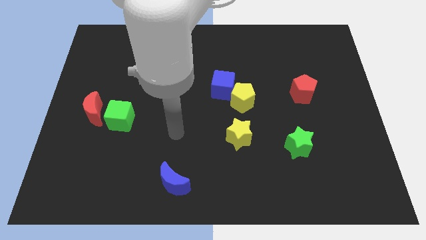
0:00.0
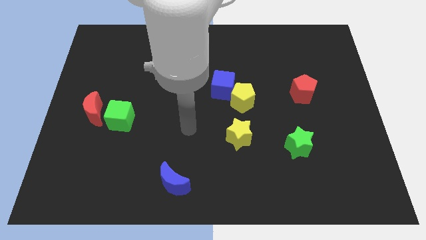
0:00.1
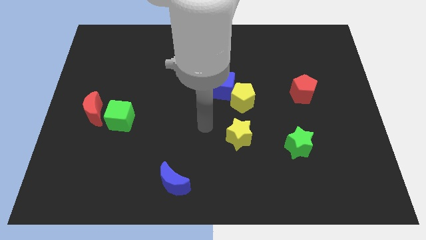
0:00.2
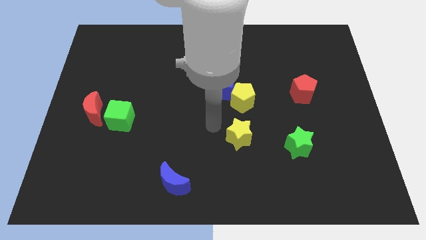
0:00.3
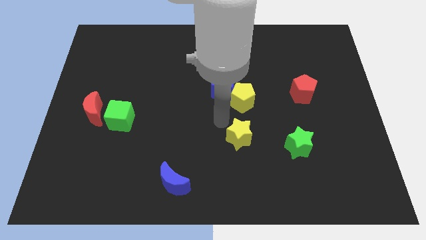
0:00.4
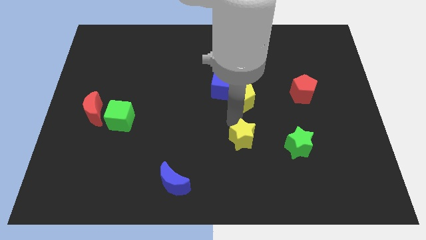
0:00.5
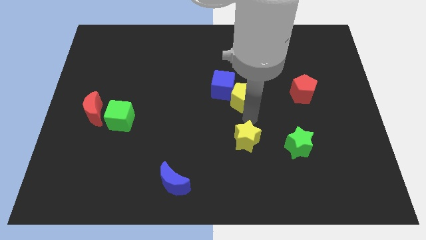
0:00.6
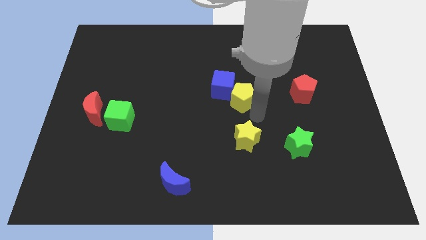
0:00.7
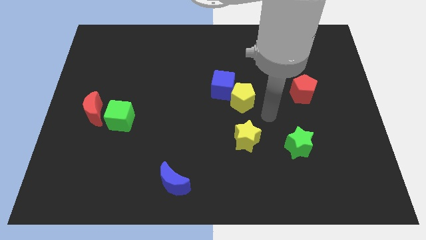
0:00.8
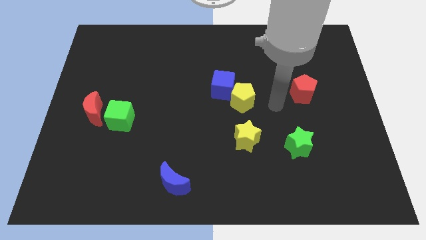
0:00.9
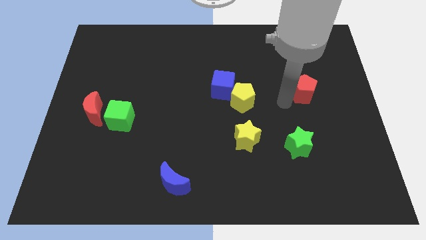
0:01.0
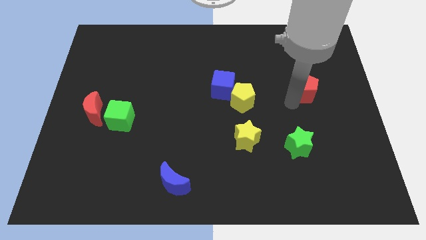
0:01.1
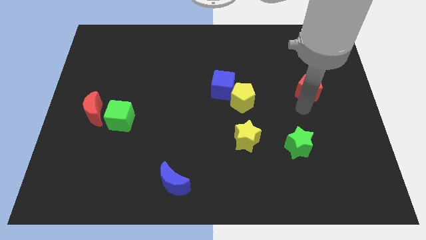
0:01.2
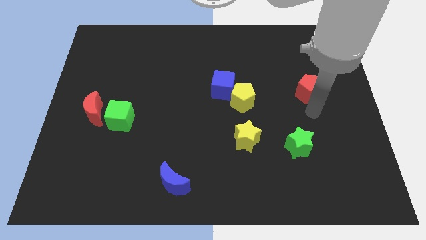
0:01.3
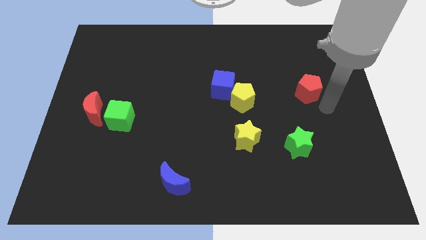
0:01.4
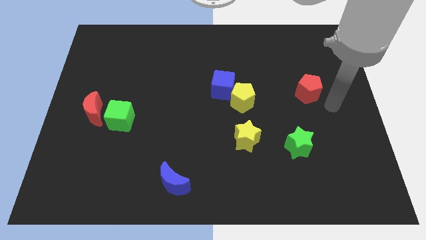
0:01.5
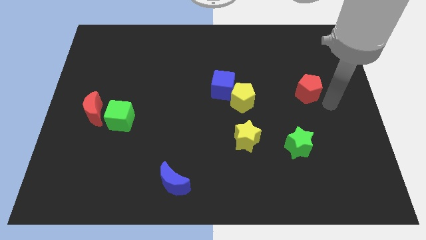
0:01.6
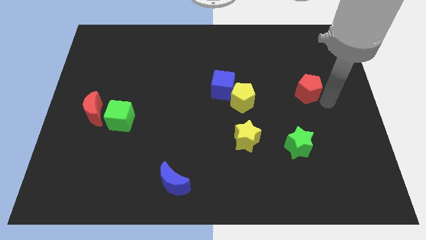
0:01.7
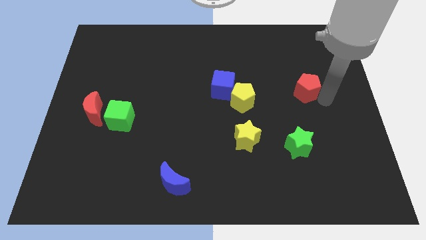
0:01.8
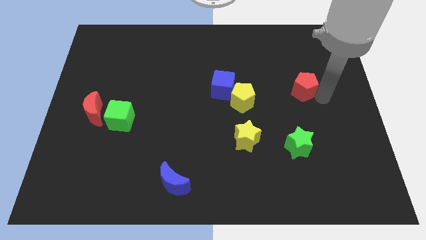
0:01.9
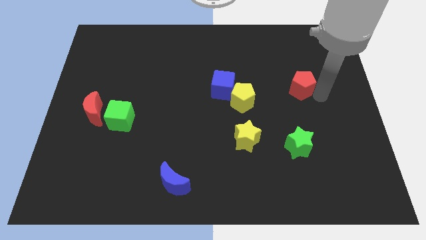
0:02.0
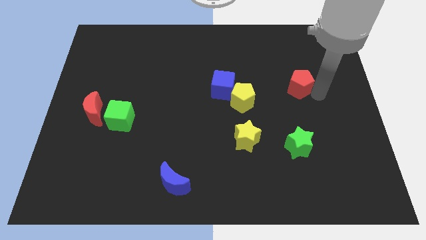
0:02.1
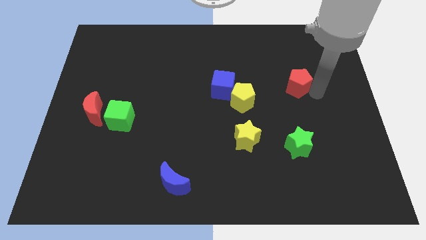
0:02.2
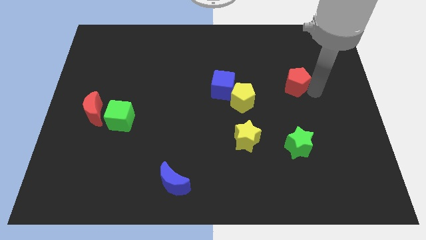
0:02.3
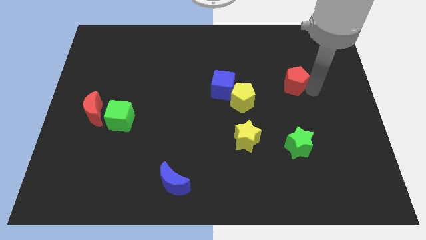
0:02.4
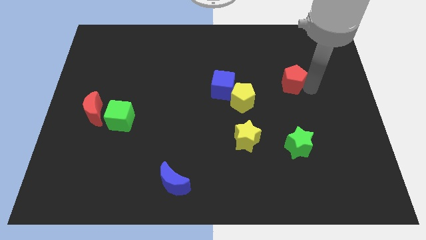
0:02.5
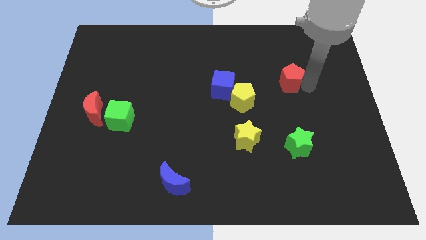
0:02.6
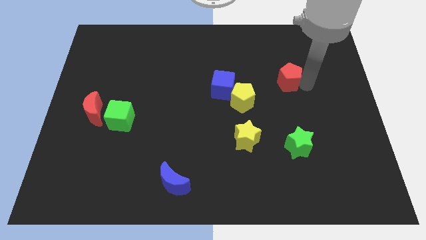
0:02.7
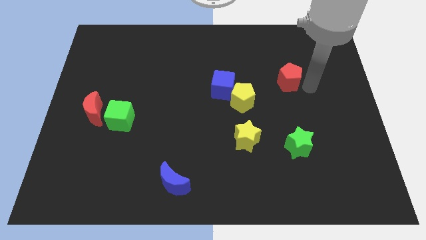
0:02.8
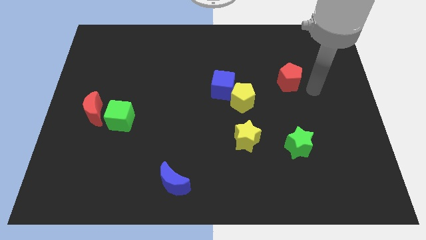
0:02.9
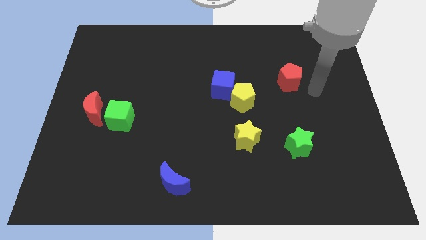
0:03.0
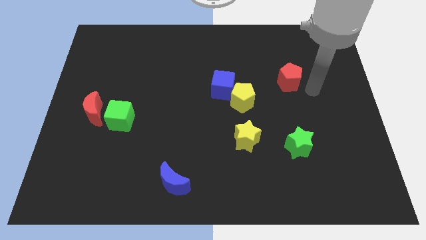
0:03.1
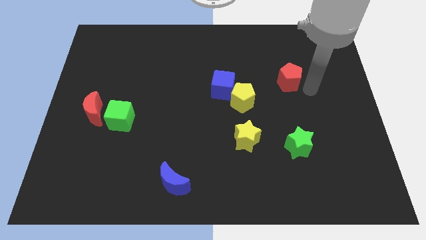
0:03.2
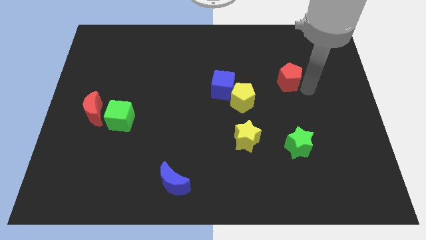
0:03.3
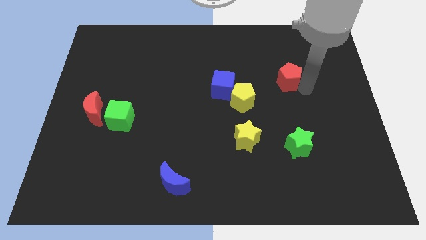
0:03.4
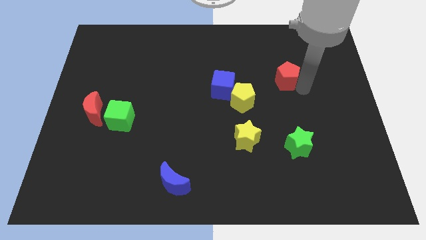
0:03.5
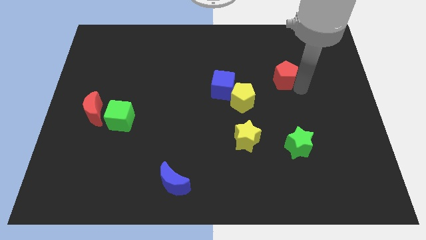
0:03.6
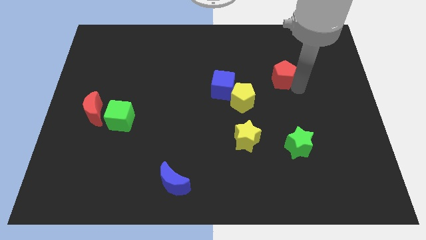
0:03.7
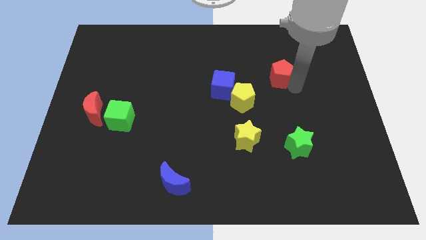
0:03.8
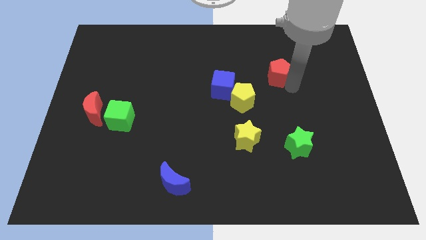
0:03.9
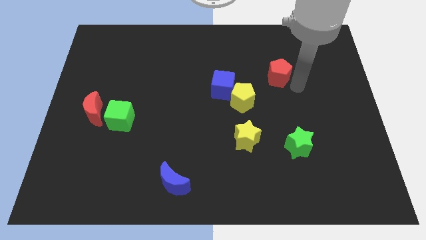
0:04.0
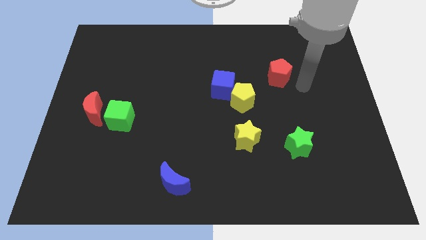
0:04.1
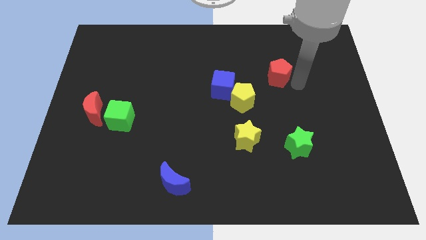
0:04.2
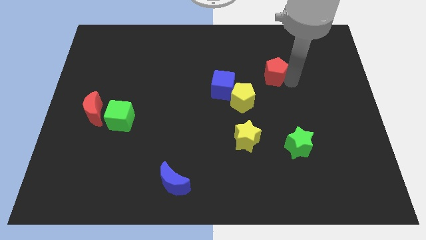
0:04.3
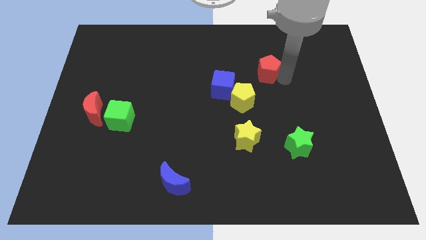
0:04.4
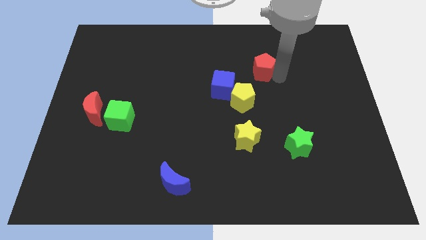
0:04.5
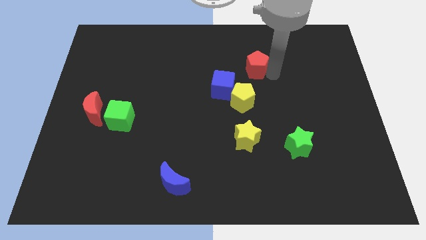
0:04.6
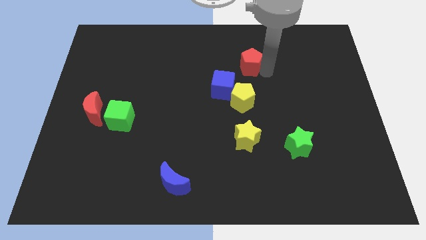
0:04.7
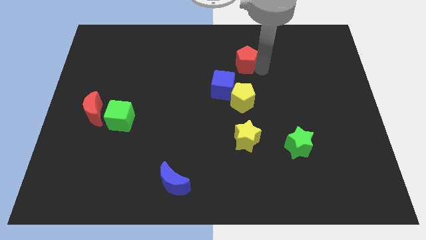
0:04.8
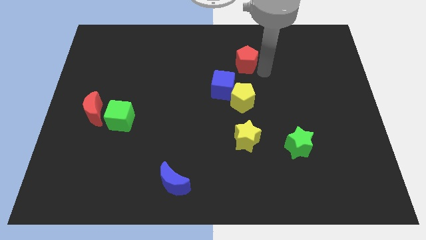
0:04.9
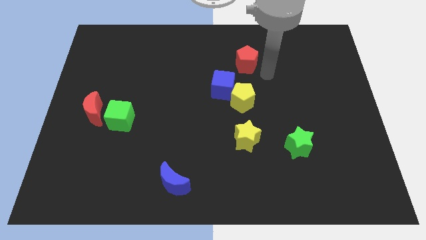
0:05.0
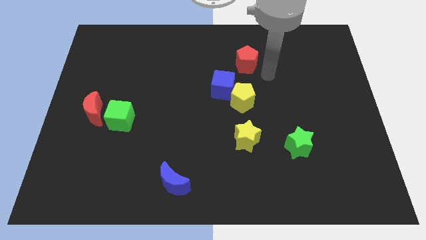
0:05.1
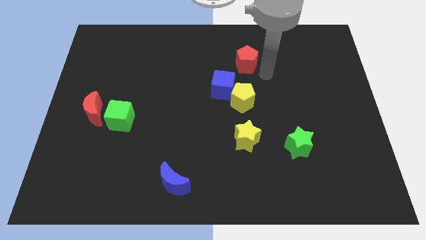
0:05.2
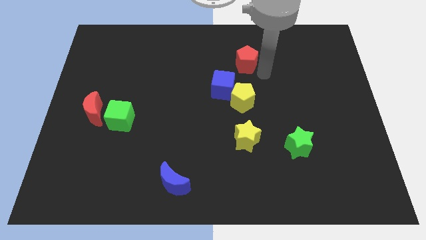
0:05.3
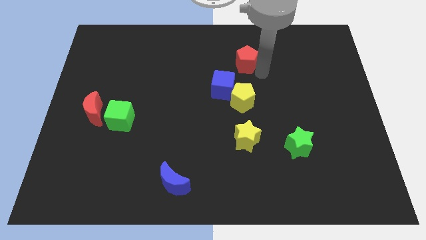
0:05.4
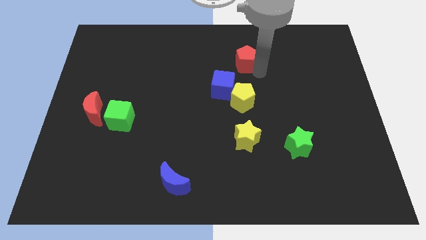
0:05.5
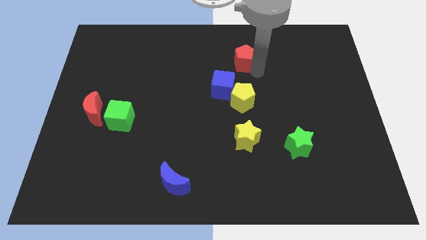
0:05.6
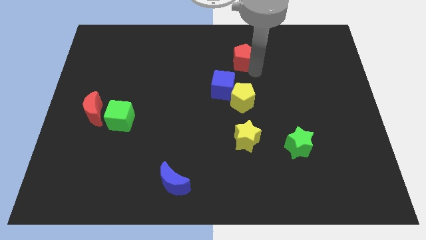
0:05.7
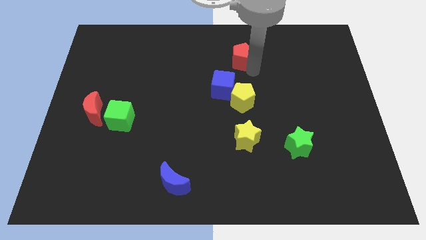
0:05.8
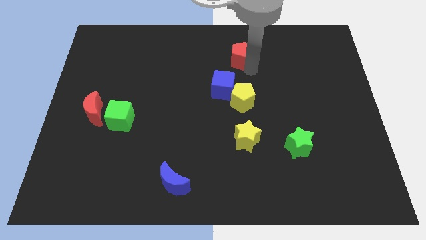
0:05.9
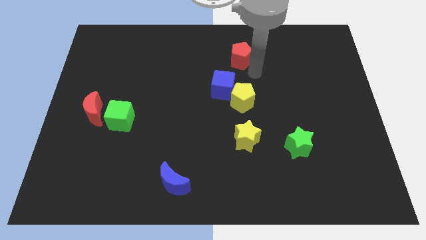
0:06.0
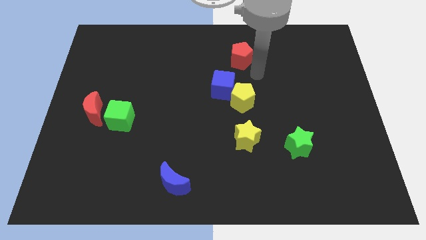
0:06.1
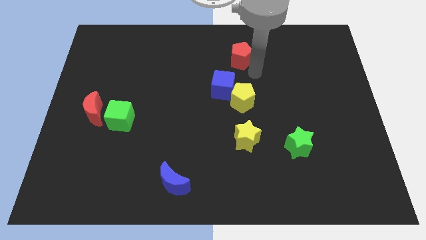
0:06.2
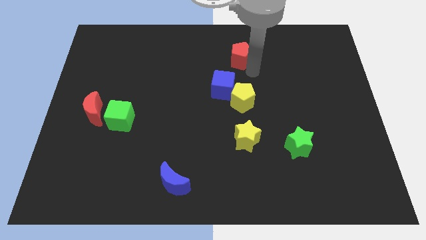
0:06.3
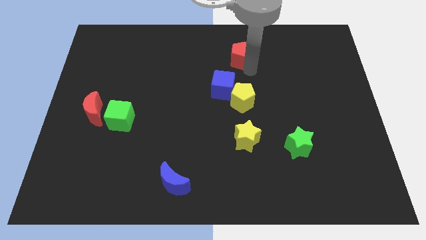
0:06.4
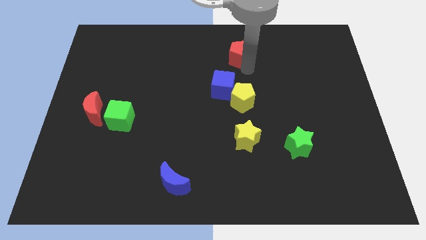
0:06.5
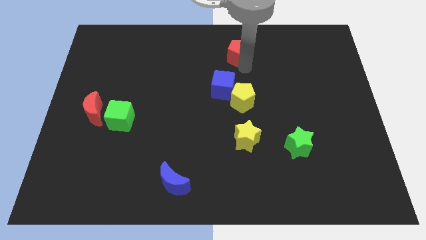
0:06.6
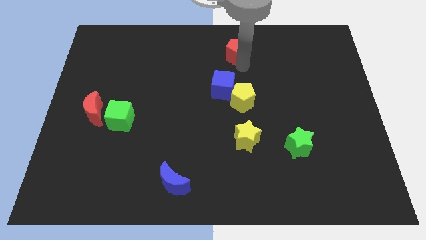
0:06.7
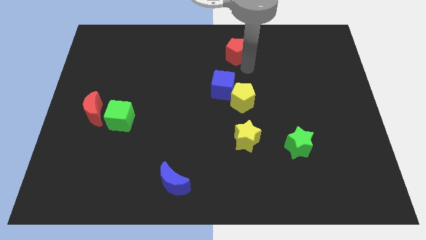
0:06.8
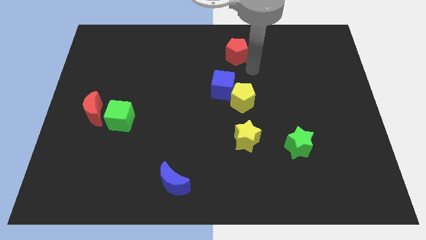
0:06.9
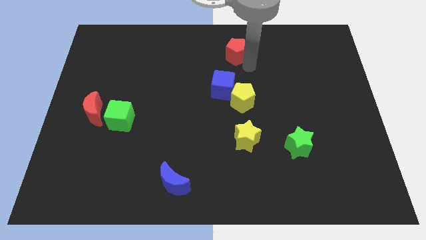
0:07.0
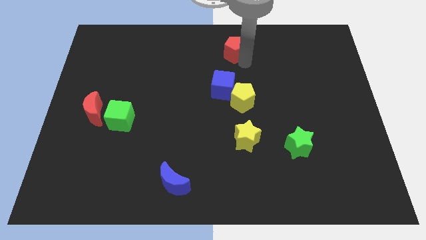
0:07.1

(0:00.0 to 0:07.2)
slide the red pentagon to the top

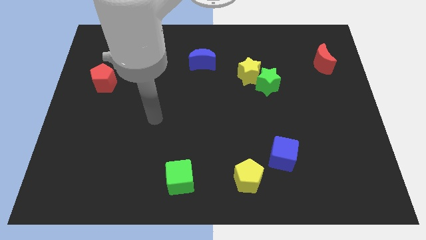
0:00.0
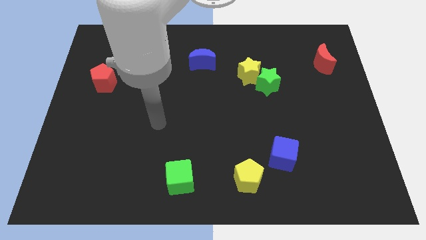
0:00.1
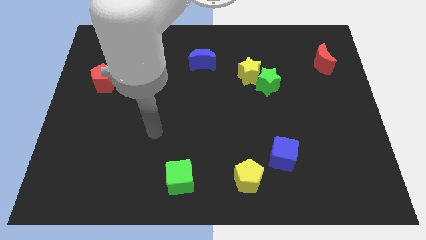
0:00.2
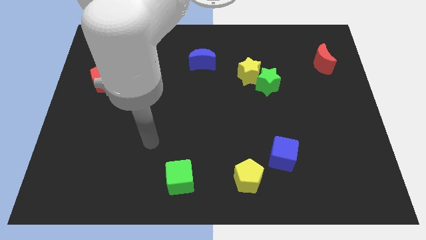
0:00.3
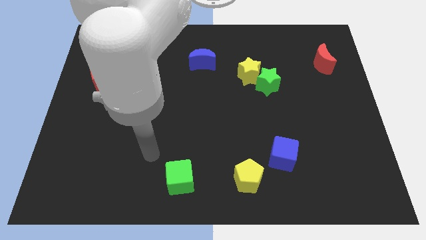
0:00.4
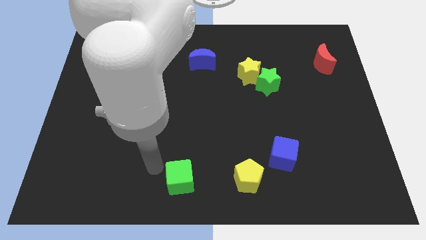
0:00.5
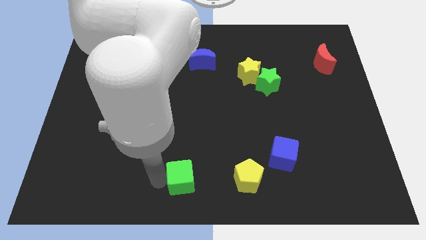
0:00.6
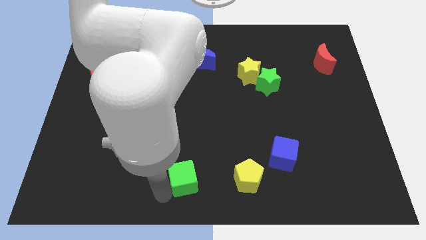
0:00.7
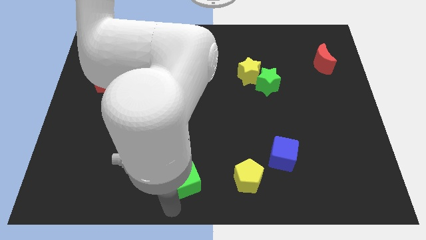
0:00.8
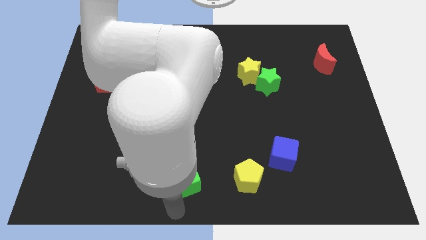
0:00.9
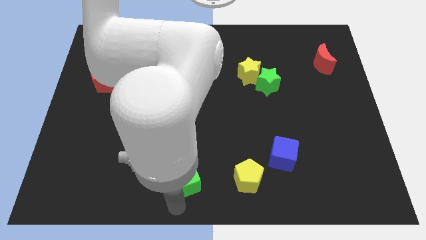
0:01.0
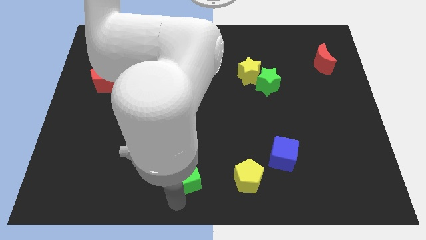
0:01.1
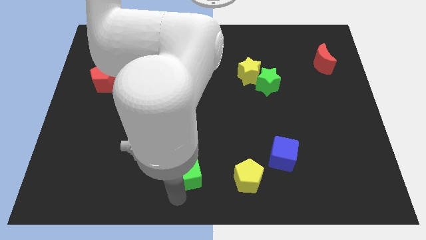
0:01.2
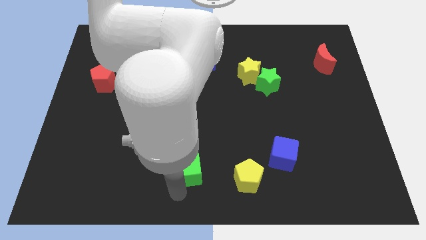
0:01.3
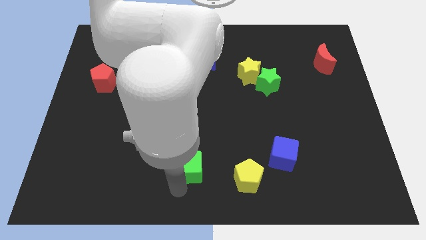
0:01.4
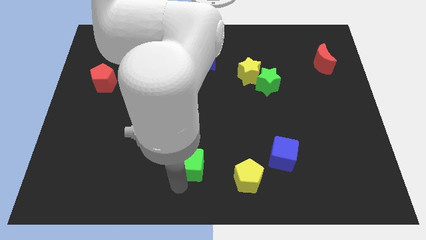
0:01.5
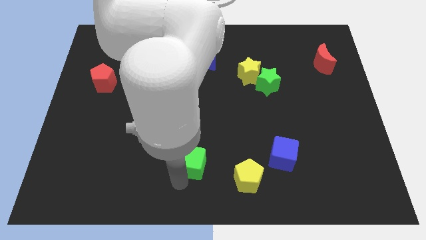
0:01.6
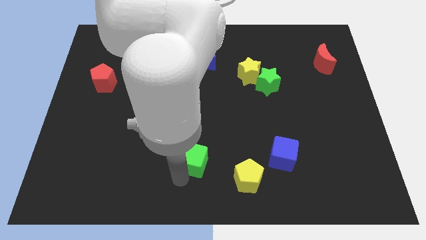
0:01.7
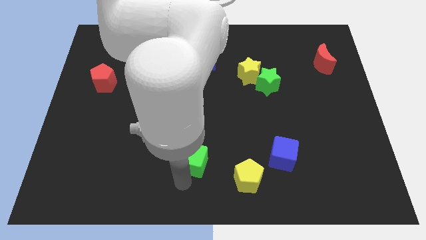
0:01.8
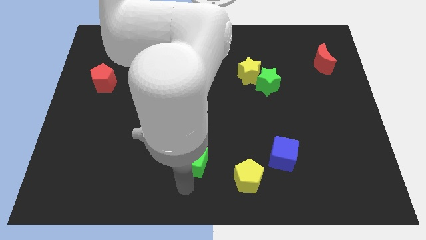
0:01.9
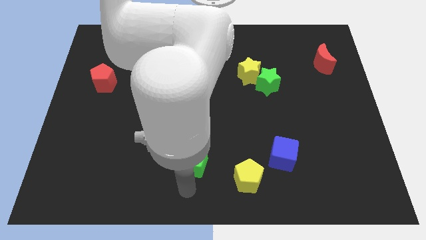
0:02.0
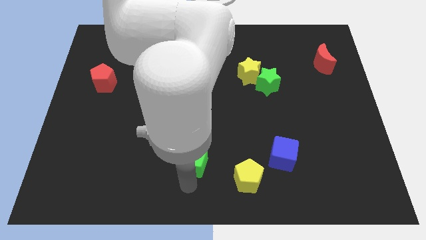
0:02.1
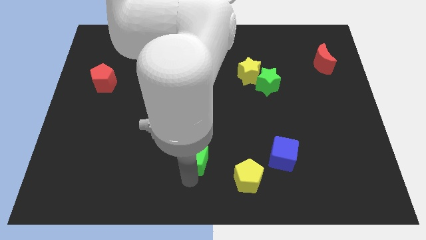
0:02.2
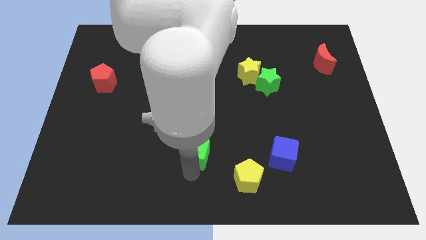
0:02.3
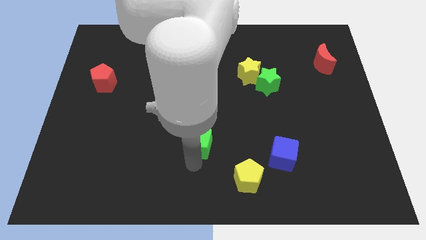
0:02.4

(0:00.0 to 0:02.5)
slide the green cube to the middle of the board
